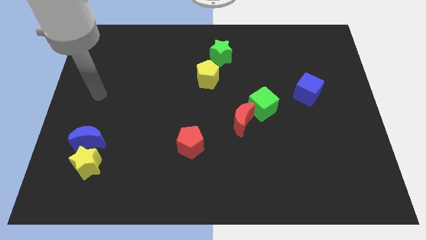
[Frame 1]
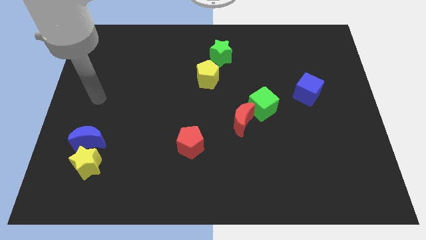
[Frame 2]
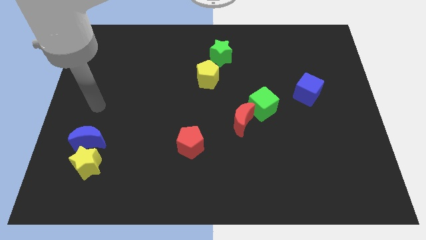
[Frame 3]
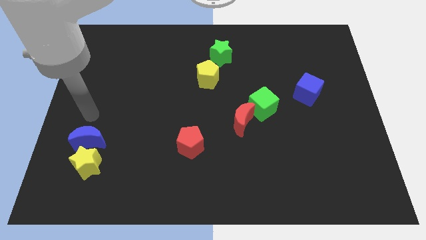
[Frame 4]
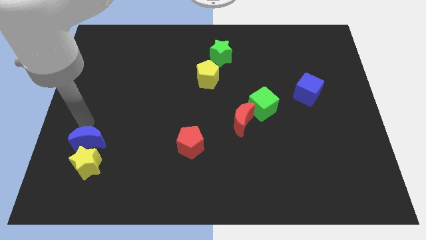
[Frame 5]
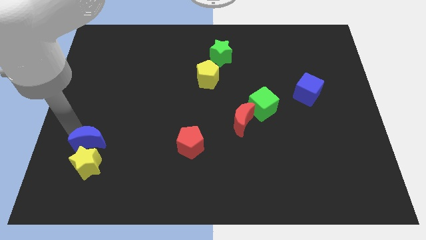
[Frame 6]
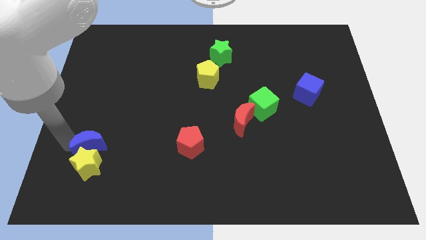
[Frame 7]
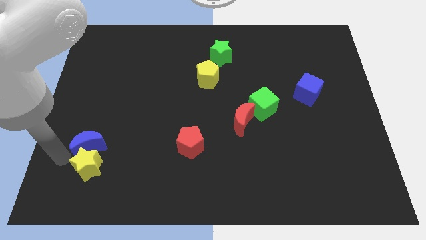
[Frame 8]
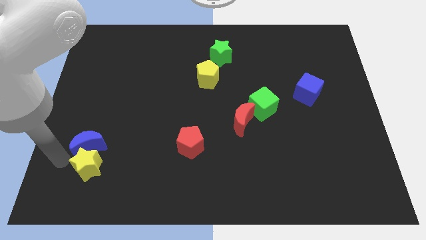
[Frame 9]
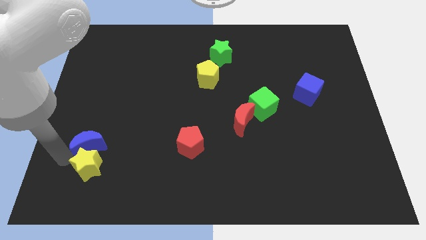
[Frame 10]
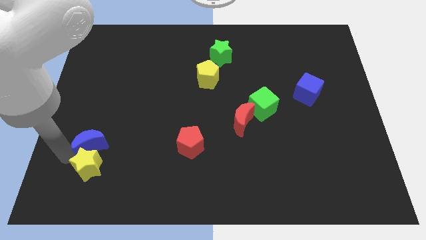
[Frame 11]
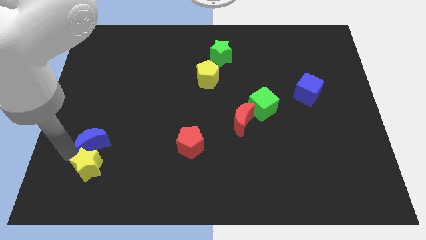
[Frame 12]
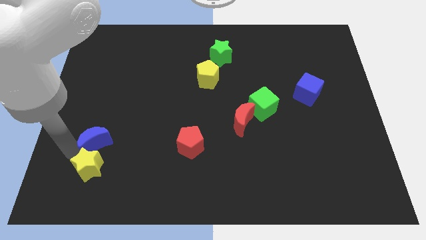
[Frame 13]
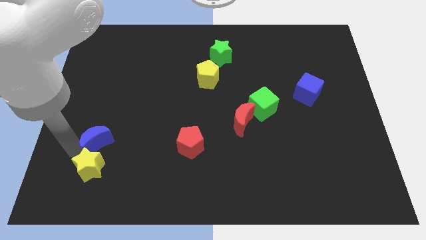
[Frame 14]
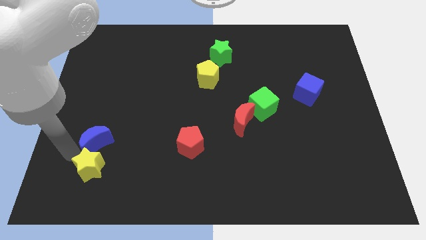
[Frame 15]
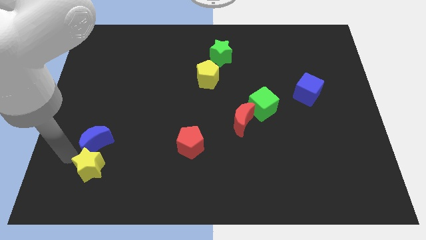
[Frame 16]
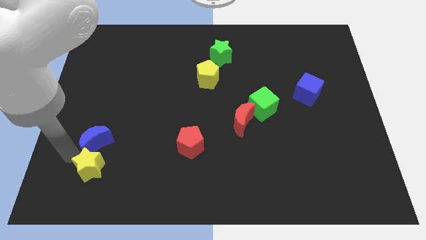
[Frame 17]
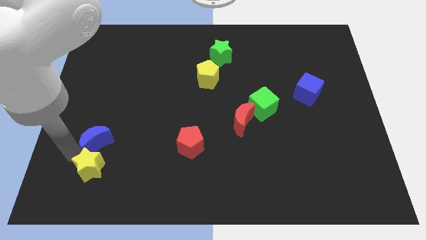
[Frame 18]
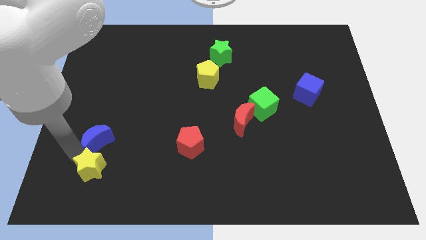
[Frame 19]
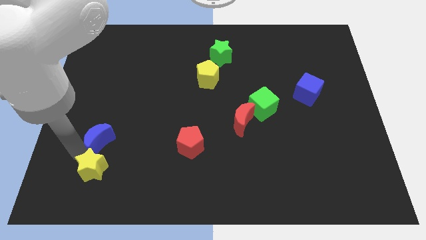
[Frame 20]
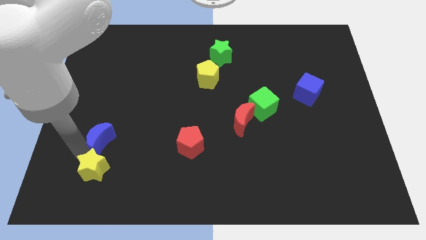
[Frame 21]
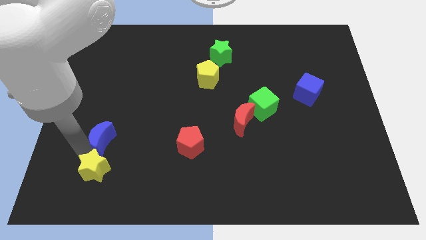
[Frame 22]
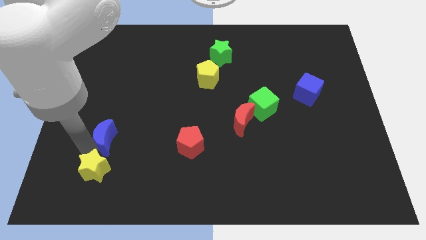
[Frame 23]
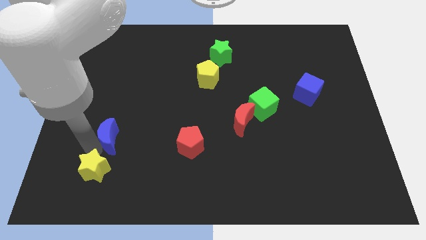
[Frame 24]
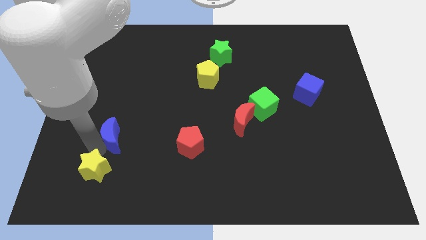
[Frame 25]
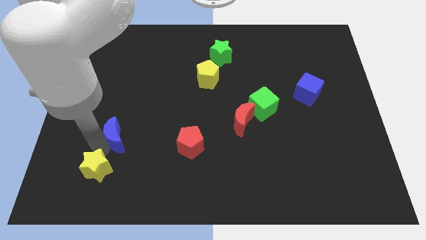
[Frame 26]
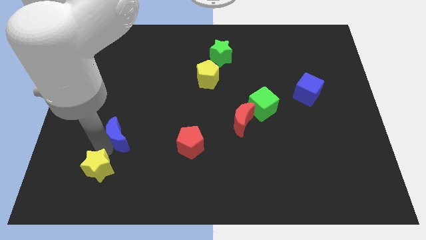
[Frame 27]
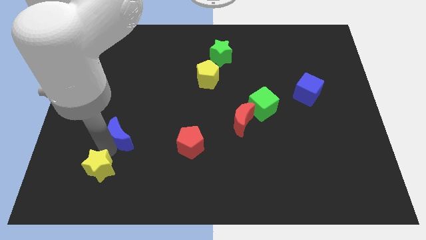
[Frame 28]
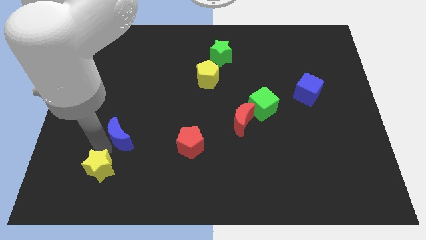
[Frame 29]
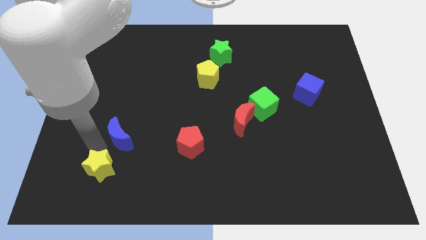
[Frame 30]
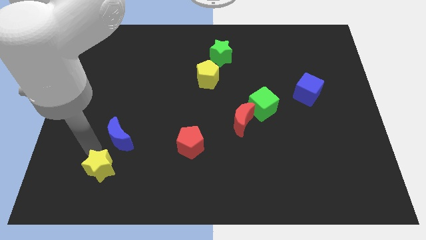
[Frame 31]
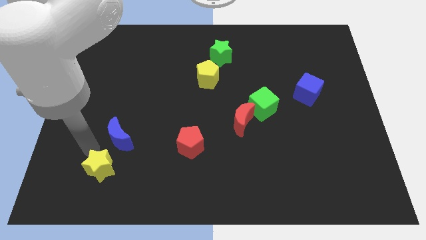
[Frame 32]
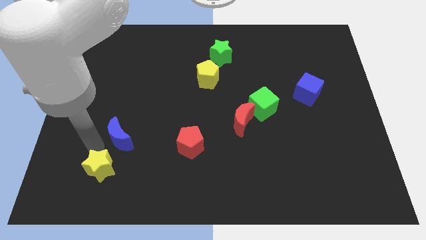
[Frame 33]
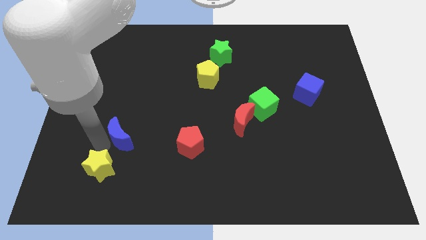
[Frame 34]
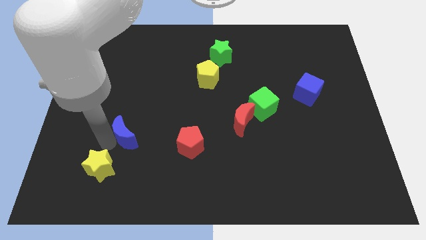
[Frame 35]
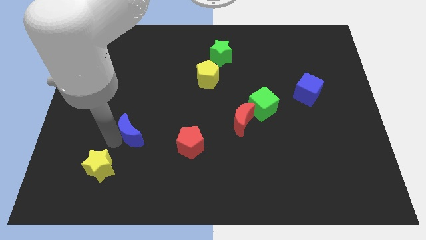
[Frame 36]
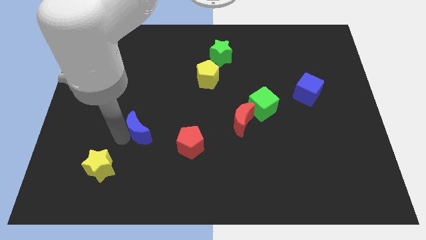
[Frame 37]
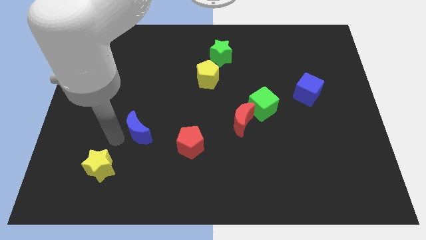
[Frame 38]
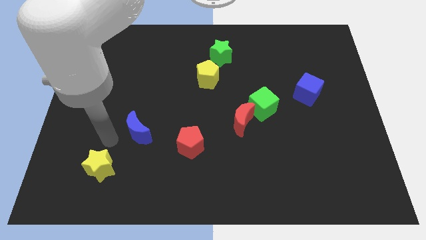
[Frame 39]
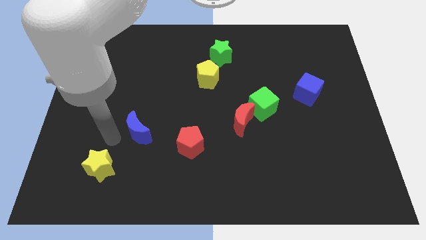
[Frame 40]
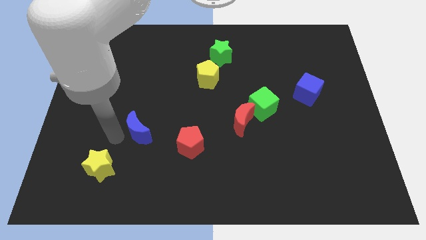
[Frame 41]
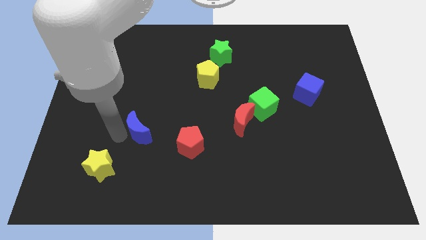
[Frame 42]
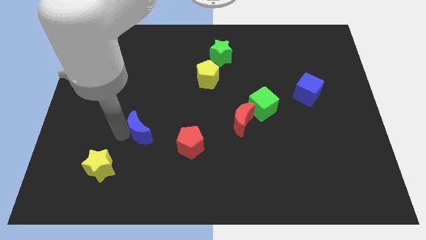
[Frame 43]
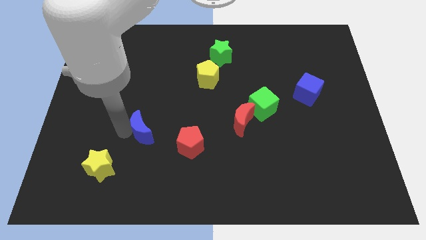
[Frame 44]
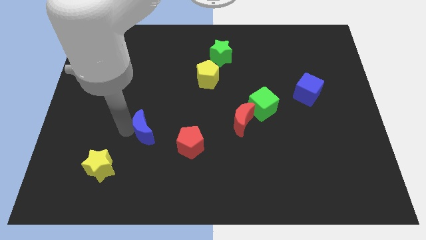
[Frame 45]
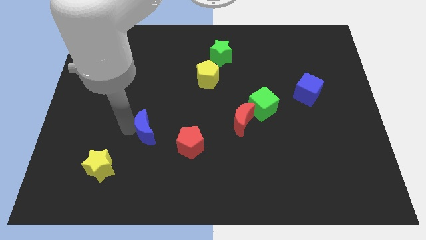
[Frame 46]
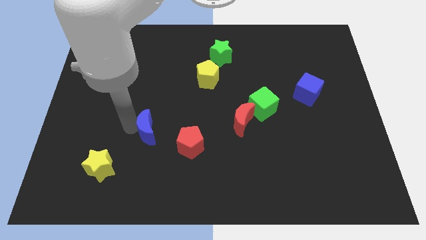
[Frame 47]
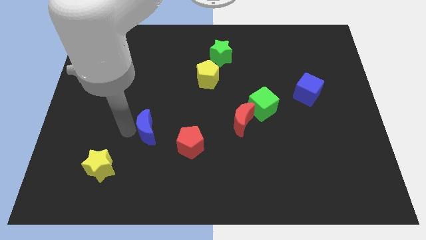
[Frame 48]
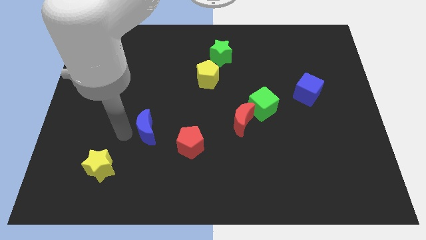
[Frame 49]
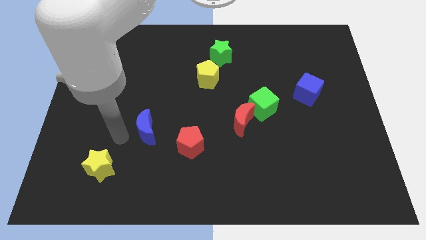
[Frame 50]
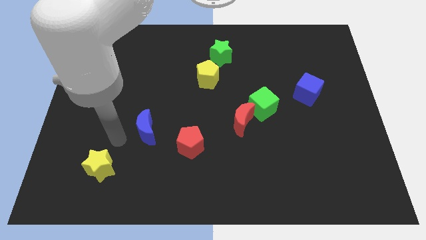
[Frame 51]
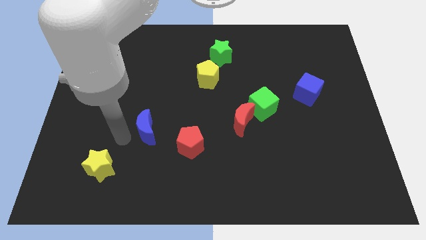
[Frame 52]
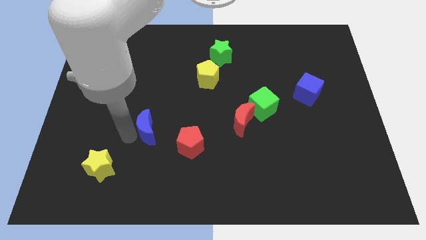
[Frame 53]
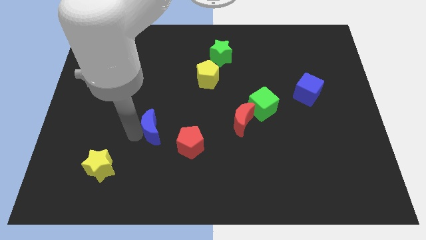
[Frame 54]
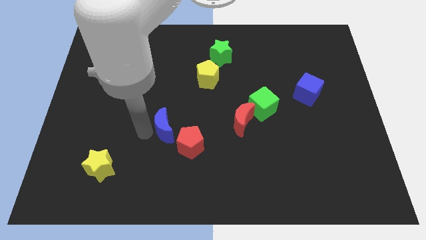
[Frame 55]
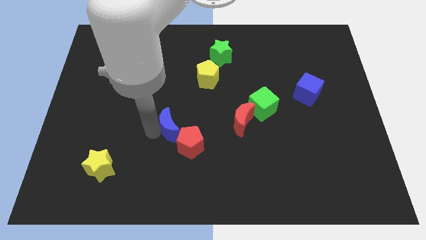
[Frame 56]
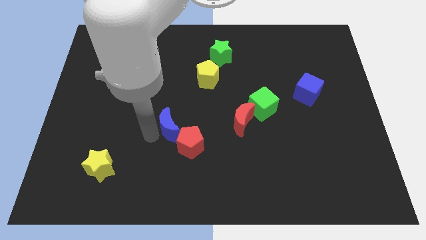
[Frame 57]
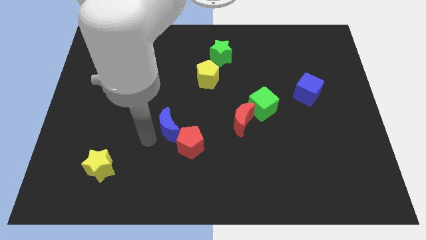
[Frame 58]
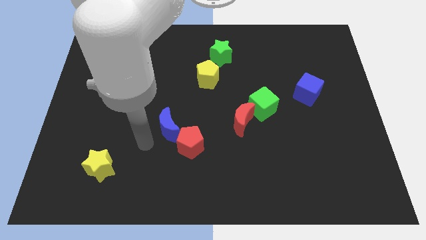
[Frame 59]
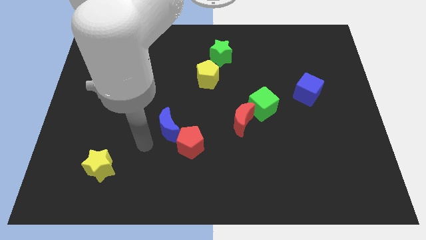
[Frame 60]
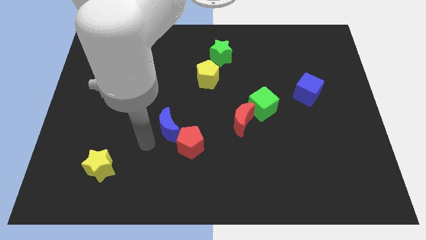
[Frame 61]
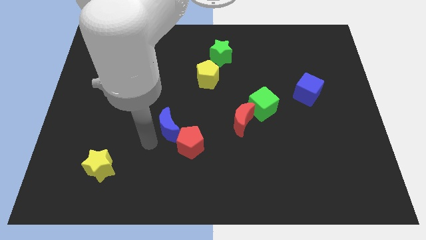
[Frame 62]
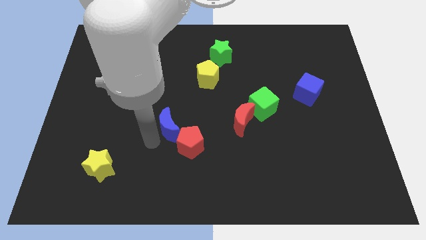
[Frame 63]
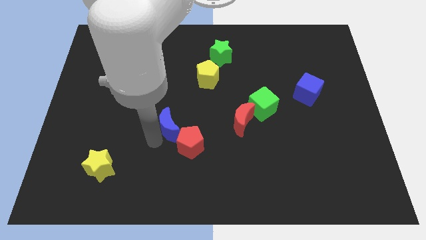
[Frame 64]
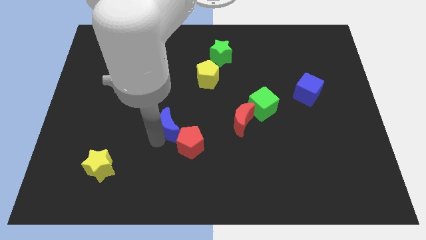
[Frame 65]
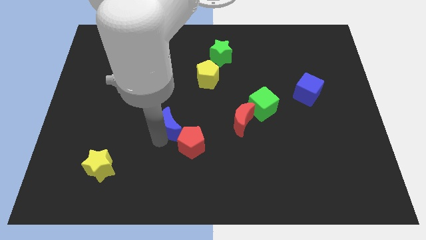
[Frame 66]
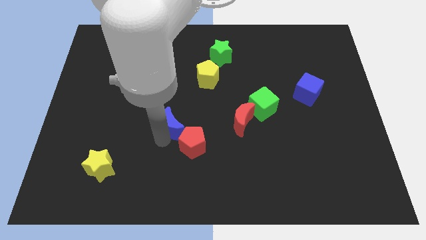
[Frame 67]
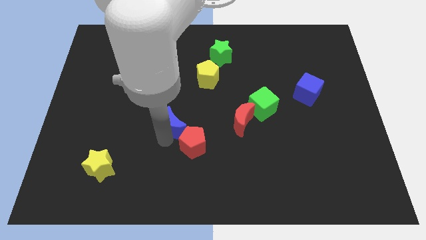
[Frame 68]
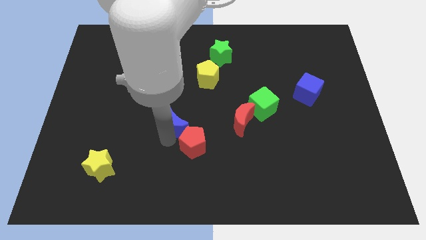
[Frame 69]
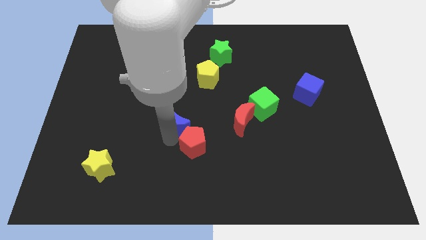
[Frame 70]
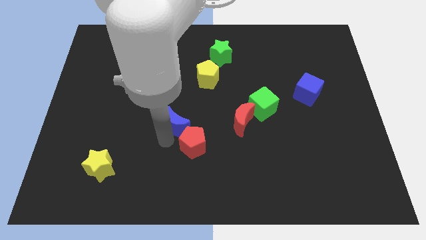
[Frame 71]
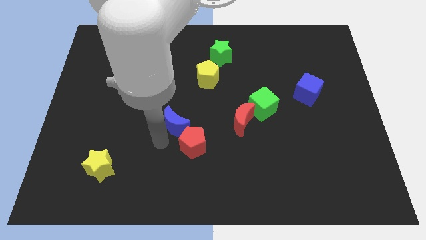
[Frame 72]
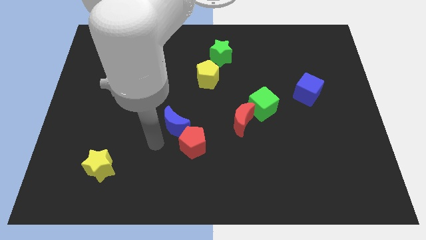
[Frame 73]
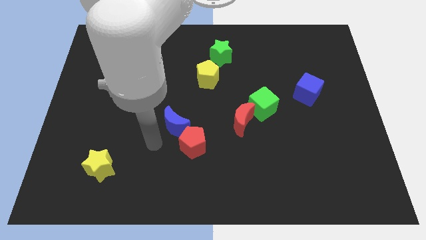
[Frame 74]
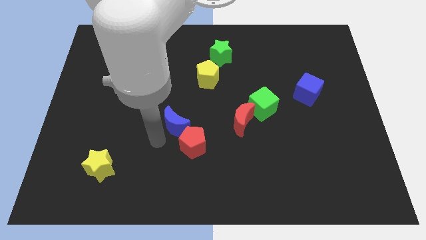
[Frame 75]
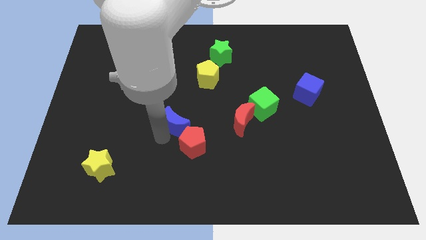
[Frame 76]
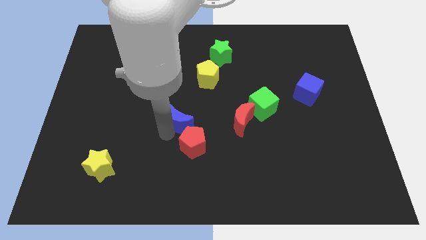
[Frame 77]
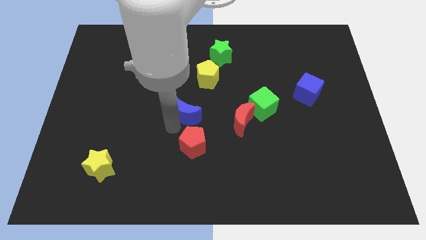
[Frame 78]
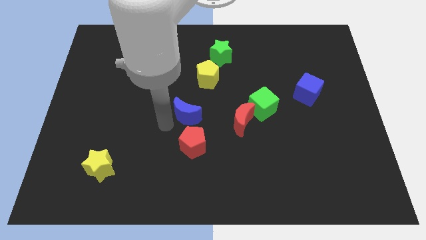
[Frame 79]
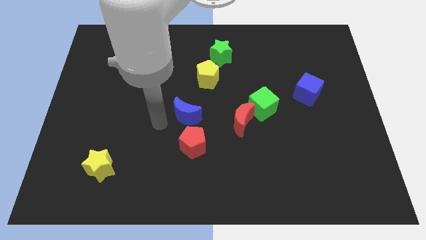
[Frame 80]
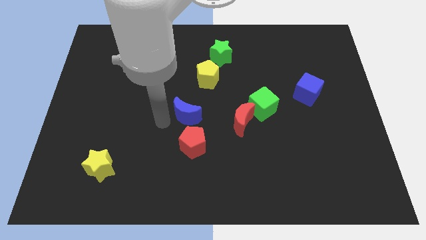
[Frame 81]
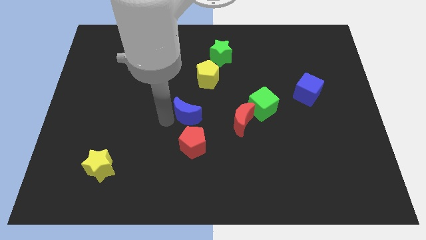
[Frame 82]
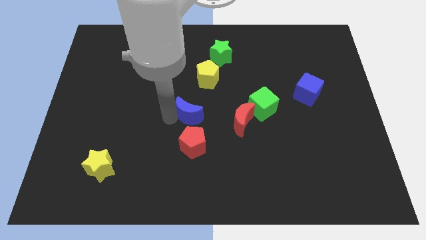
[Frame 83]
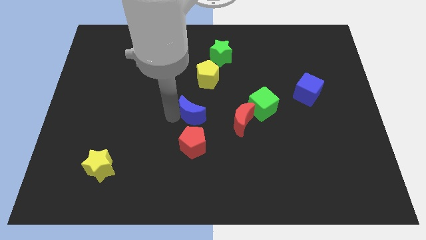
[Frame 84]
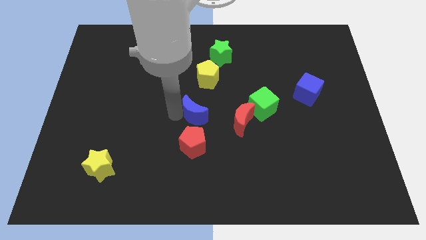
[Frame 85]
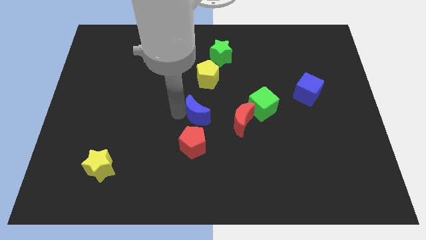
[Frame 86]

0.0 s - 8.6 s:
put the blue moon to the left side of the green cube

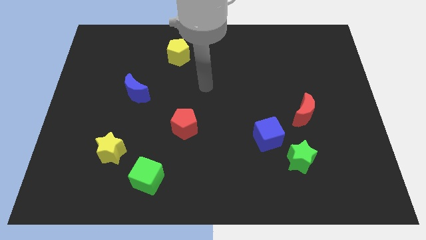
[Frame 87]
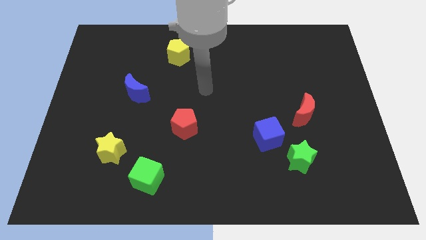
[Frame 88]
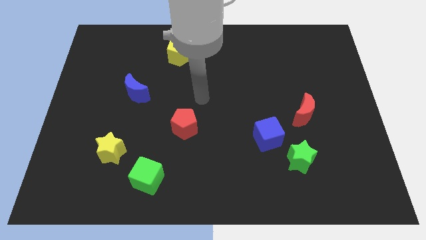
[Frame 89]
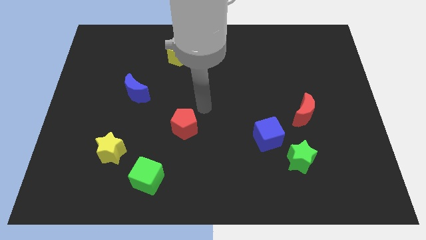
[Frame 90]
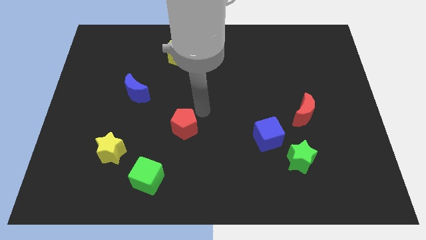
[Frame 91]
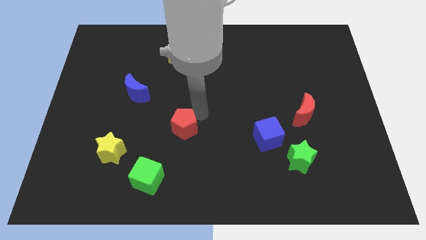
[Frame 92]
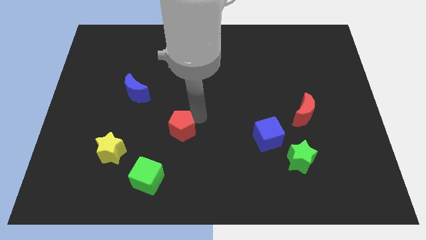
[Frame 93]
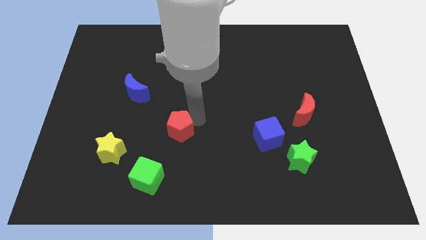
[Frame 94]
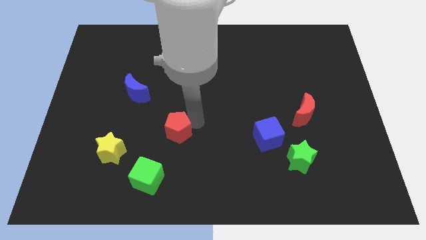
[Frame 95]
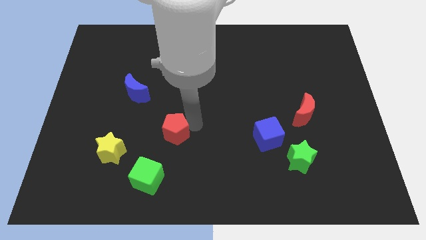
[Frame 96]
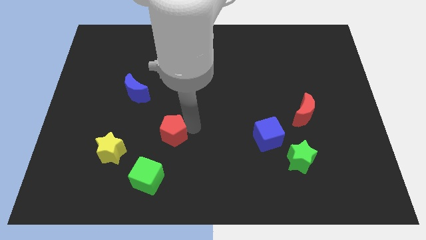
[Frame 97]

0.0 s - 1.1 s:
put the red pentagon to the right of the yellow star
